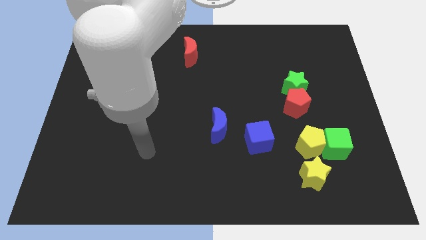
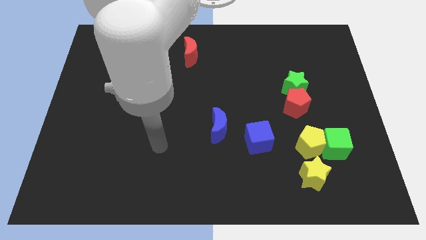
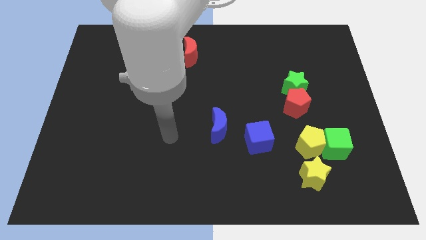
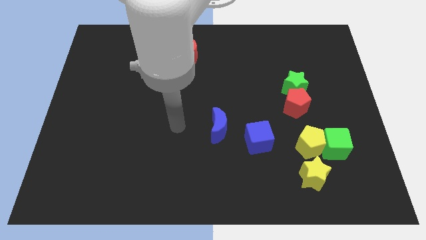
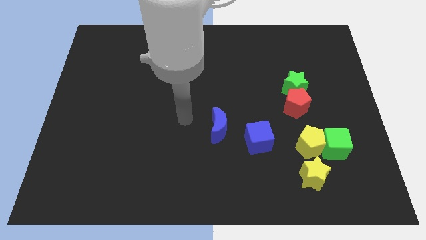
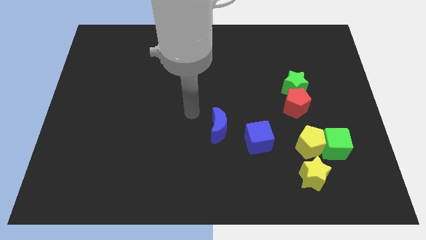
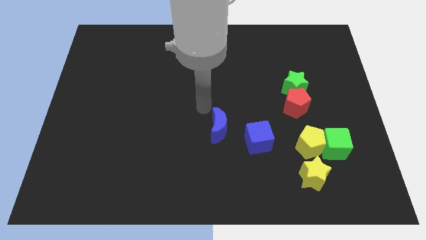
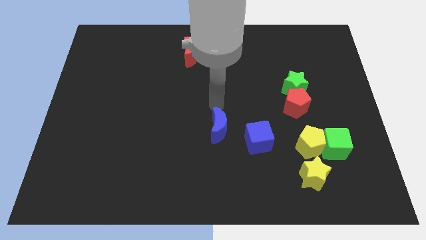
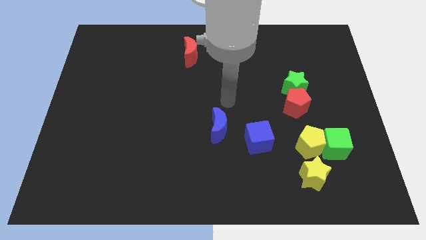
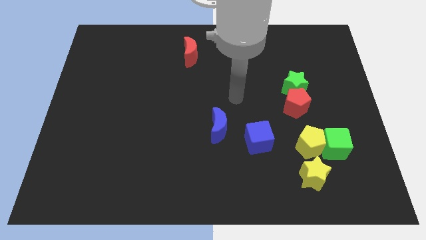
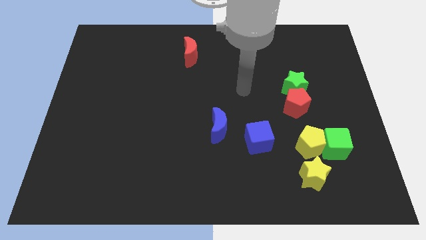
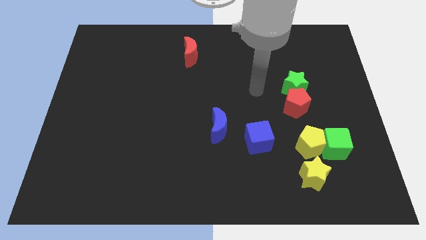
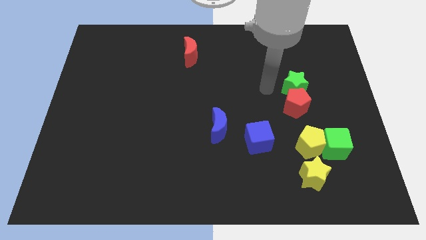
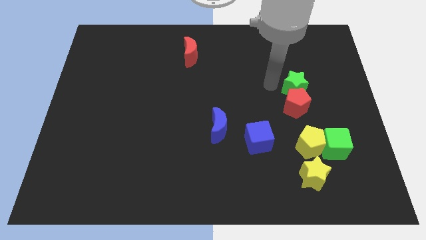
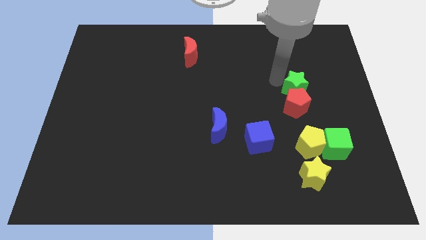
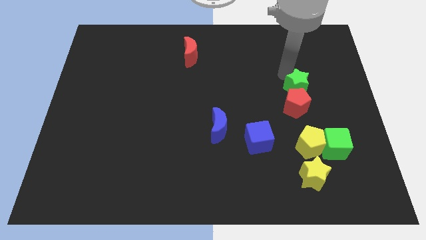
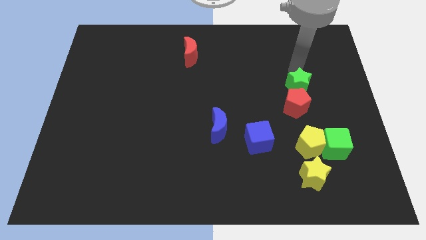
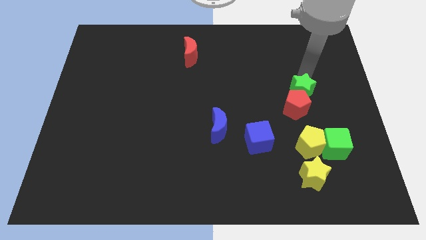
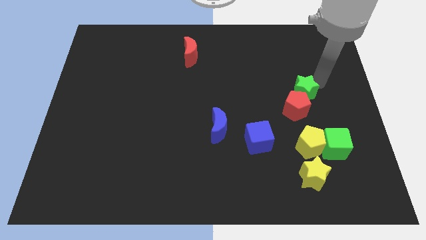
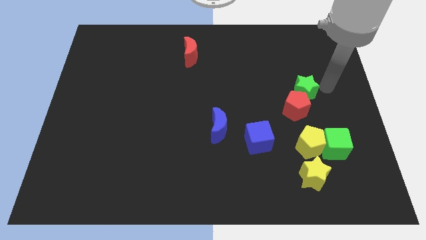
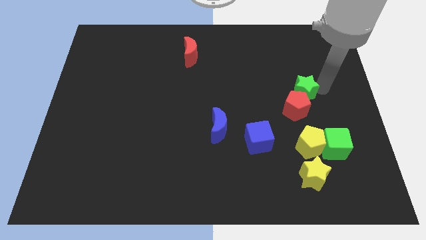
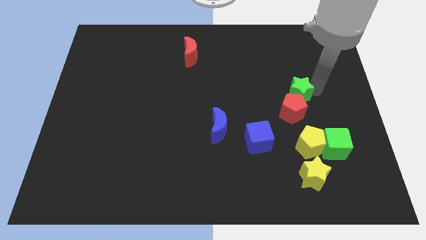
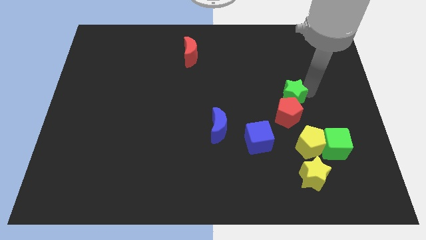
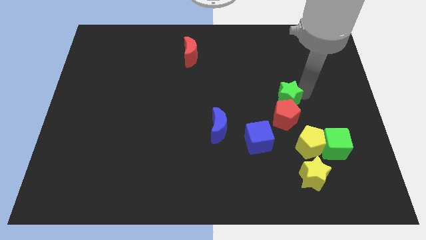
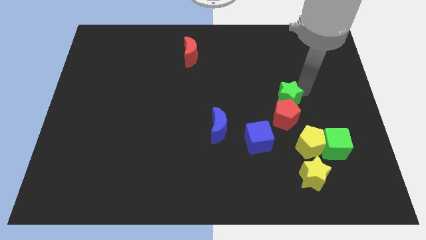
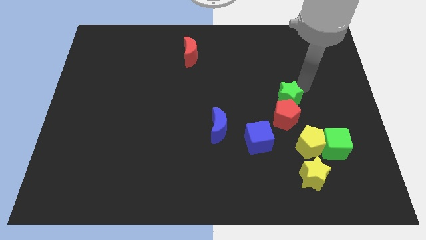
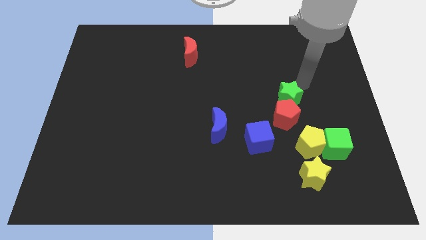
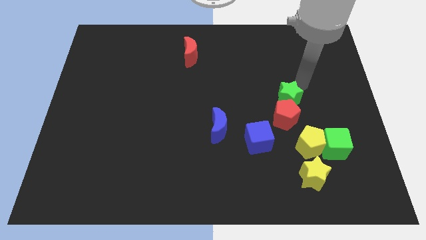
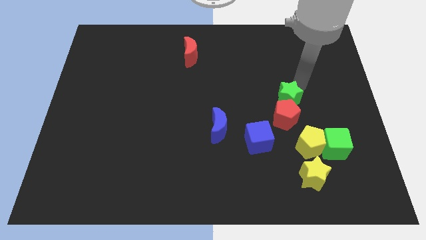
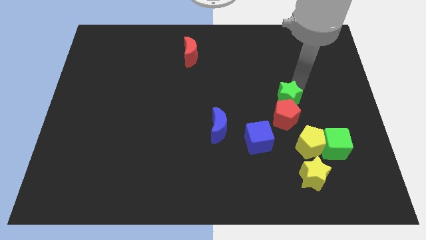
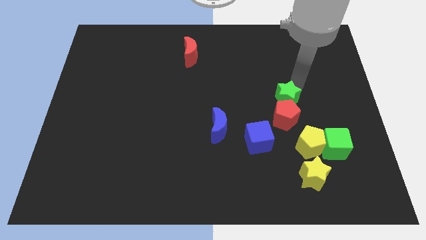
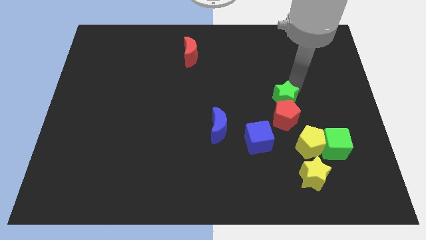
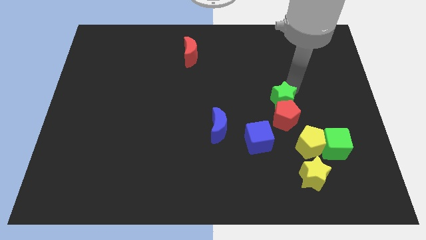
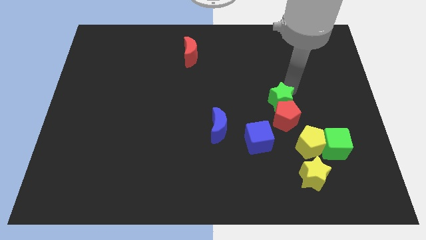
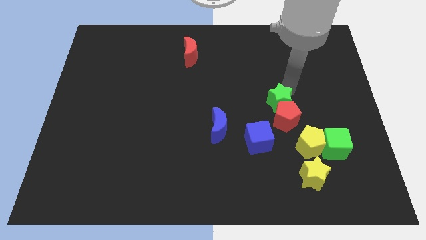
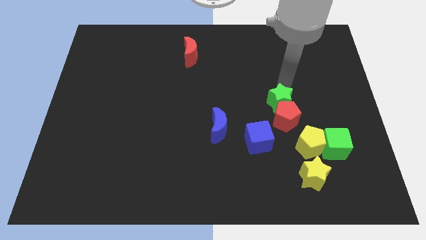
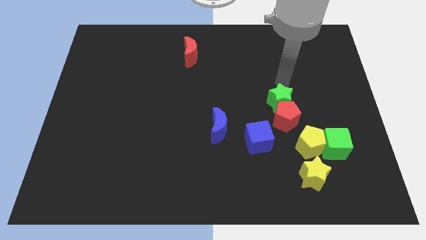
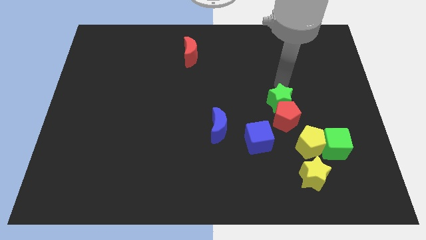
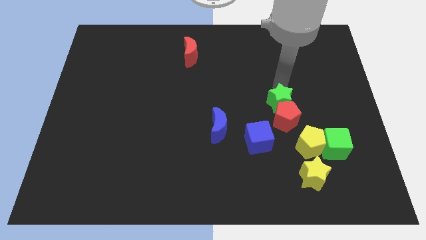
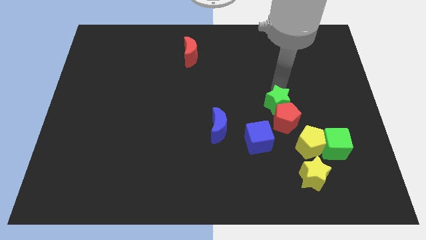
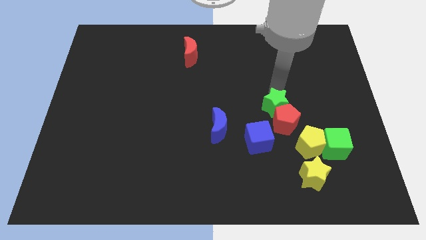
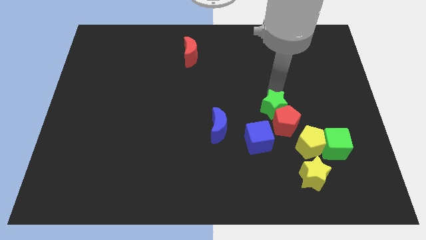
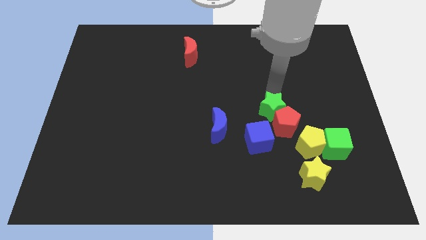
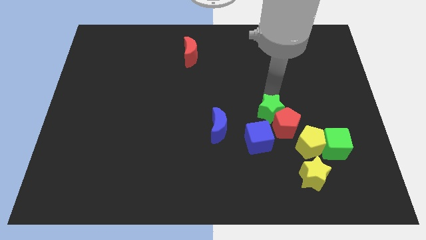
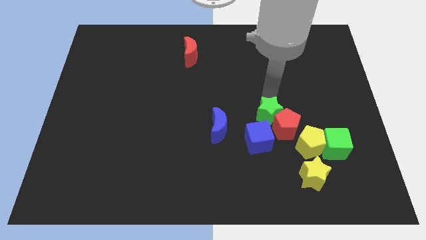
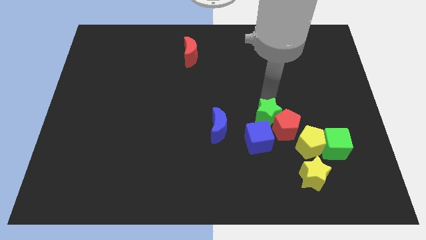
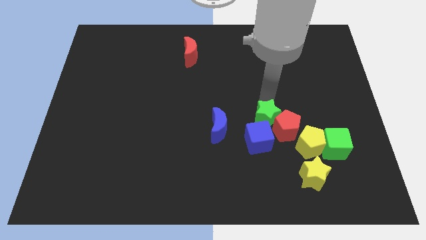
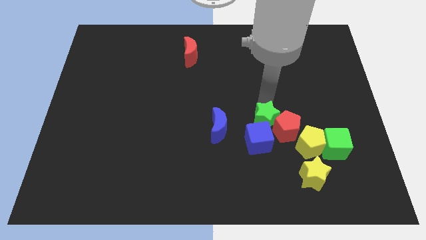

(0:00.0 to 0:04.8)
move the green star towards the blue cube

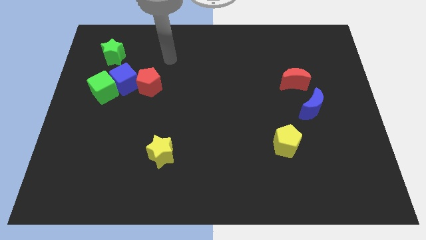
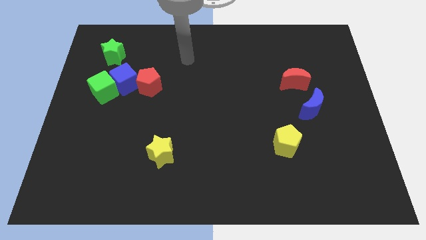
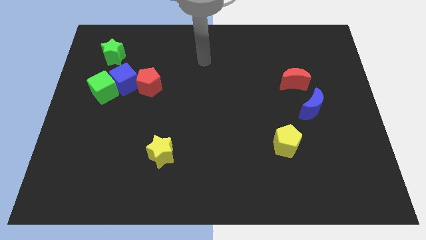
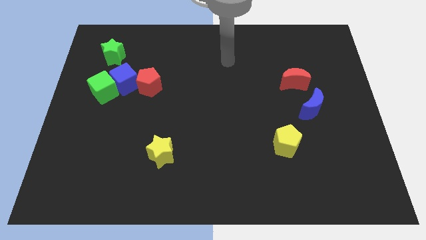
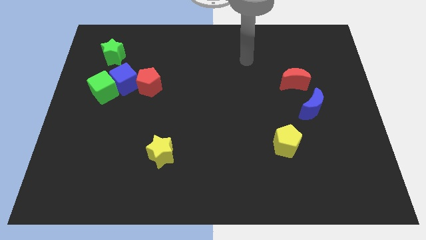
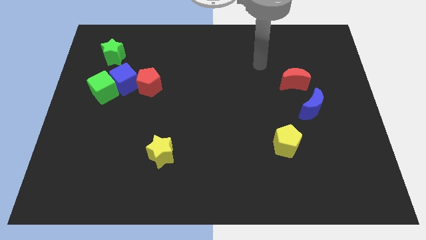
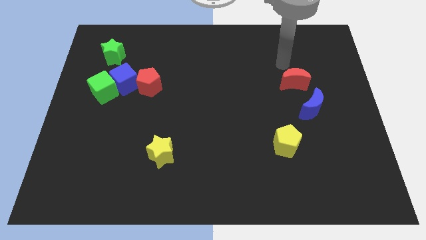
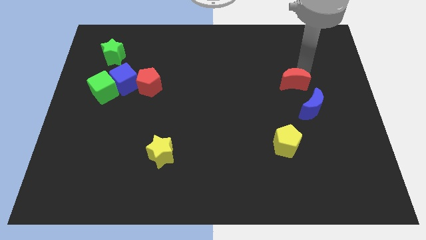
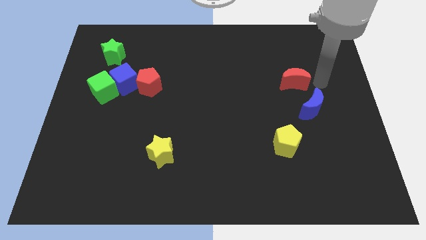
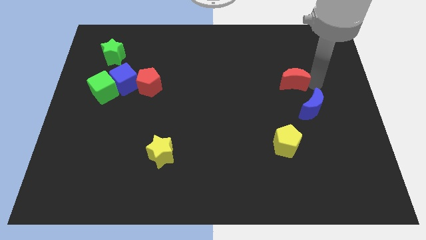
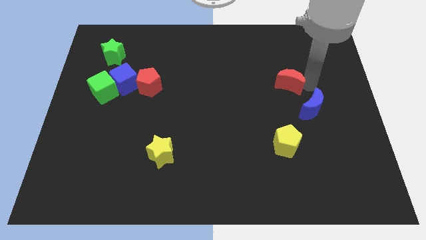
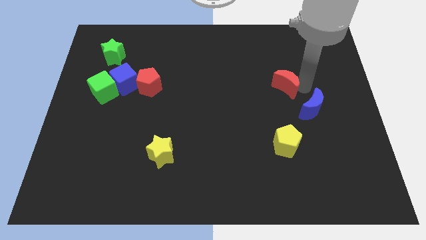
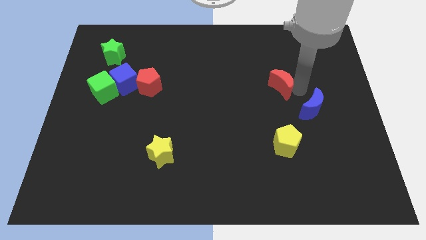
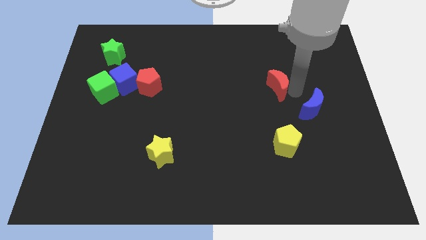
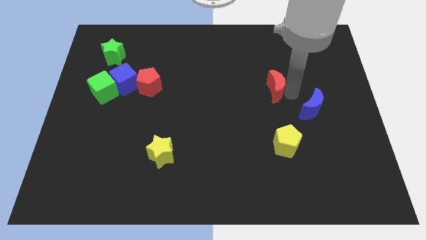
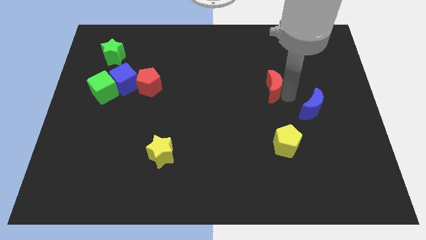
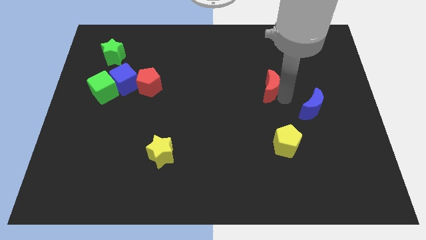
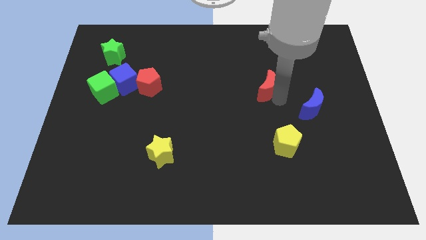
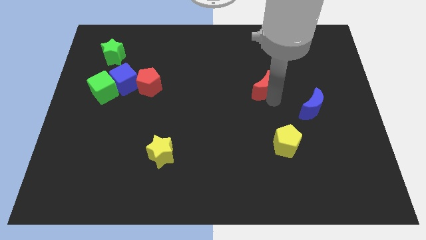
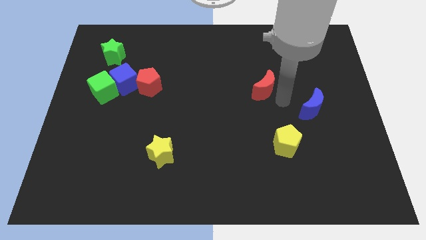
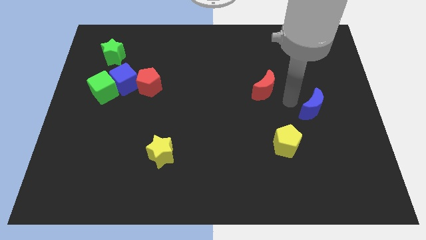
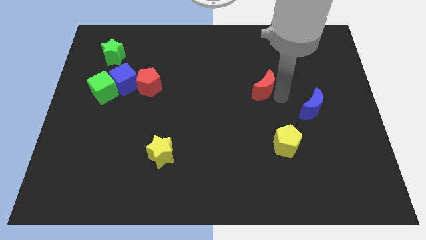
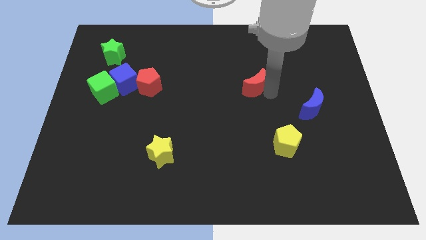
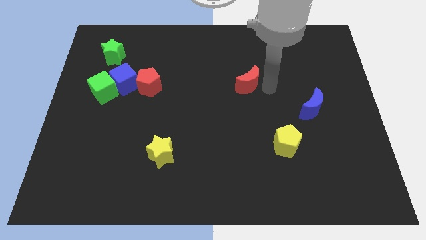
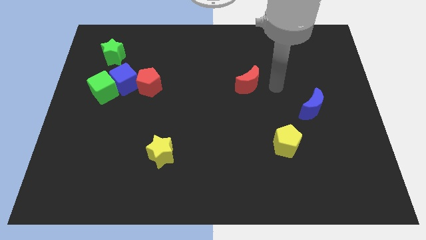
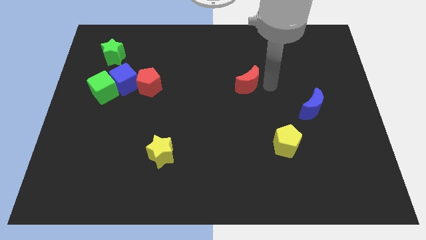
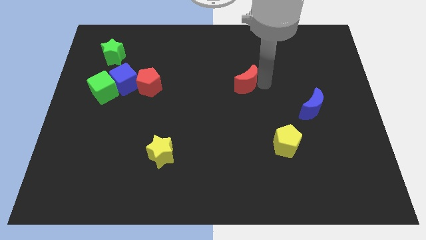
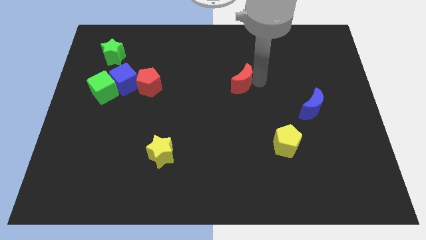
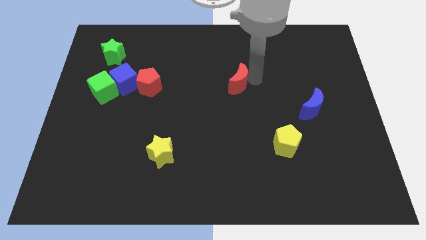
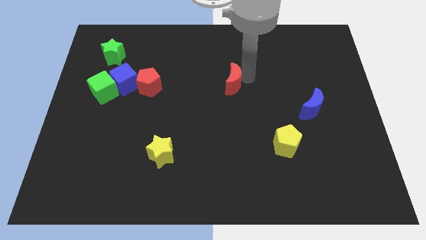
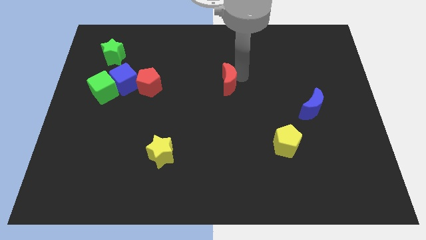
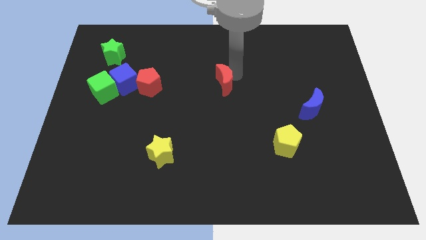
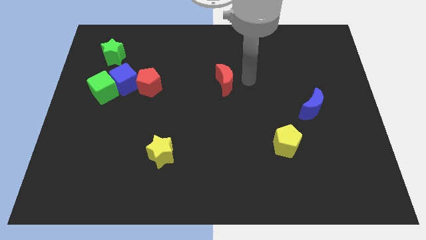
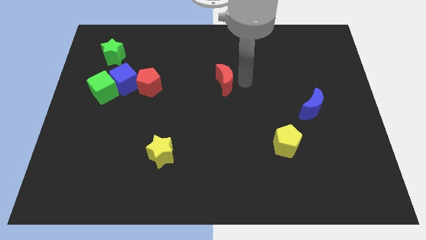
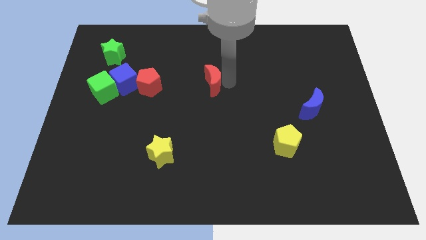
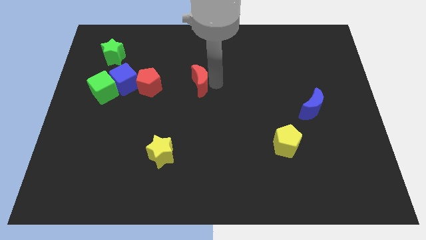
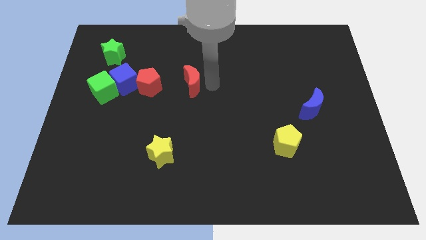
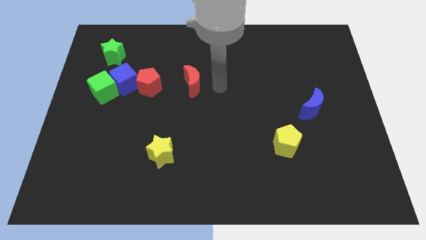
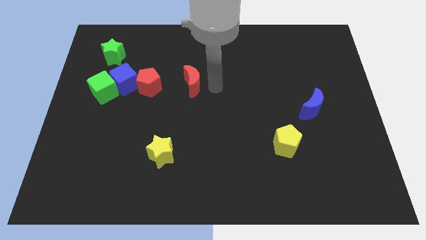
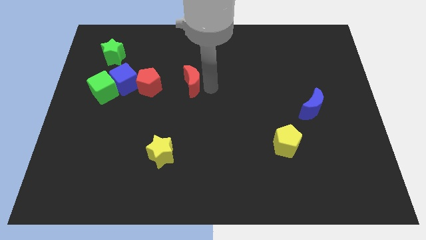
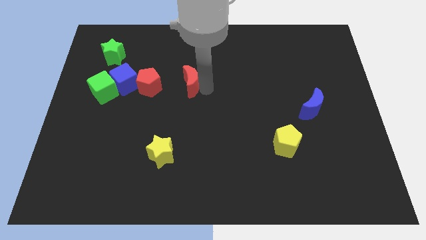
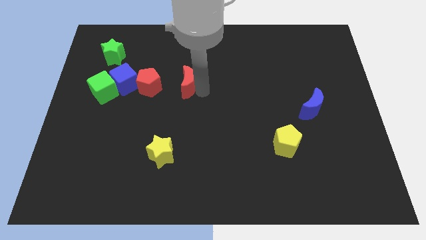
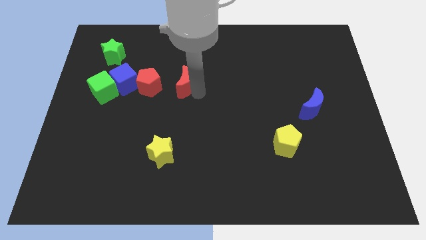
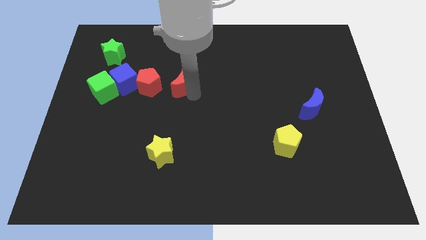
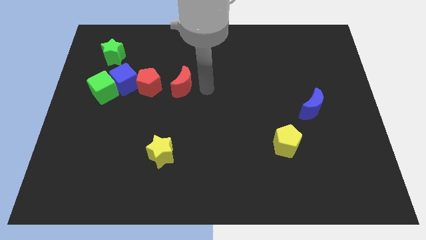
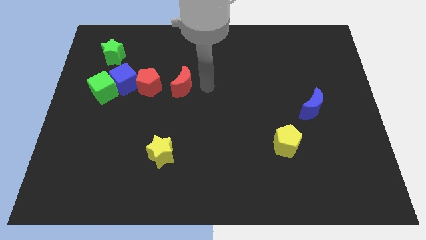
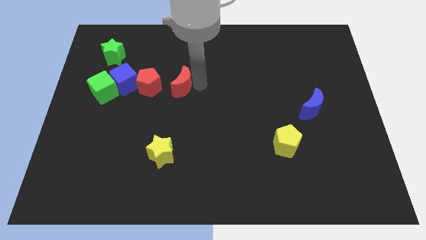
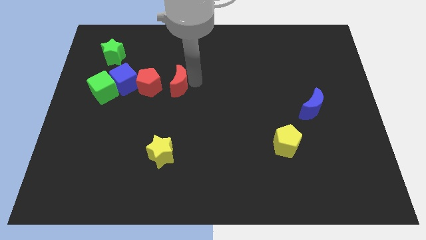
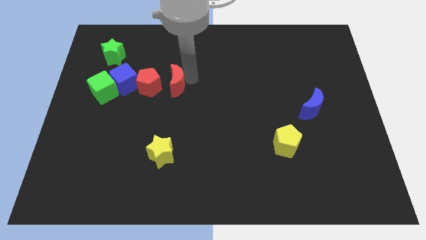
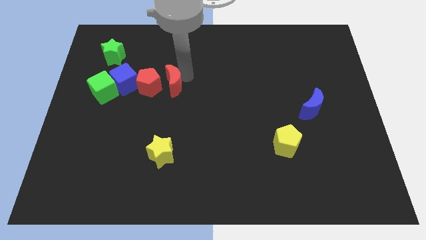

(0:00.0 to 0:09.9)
put the red moon towards the red pentagon
